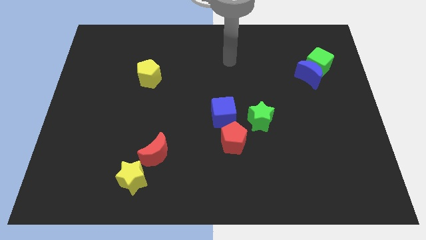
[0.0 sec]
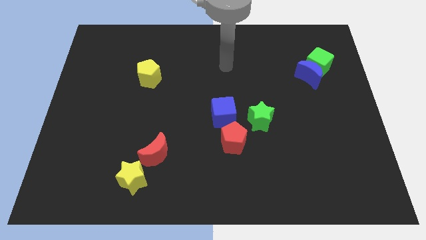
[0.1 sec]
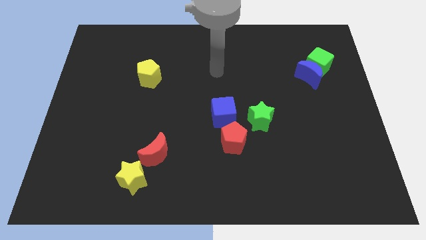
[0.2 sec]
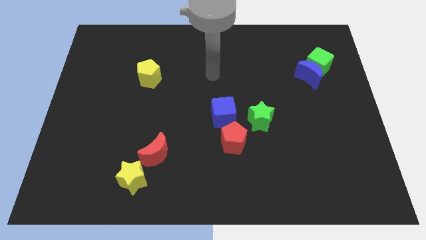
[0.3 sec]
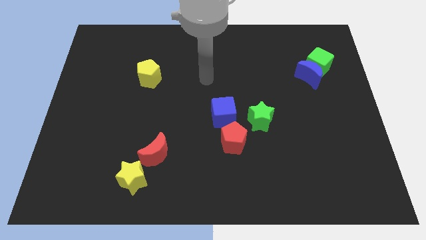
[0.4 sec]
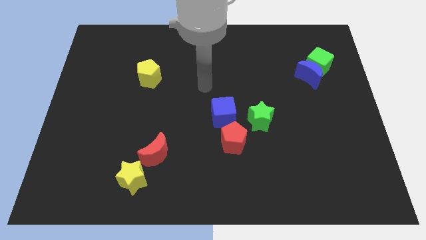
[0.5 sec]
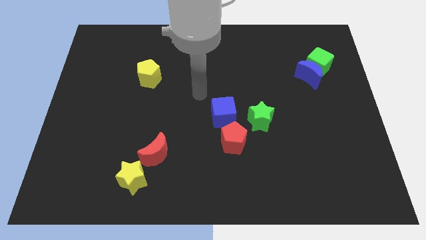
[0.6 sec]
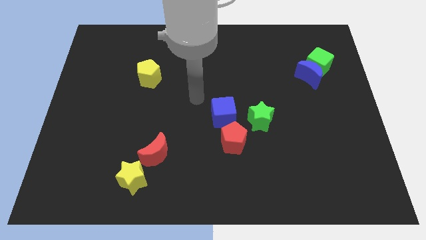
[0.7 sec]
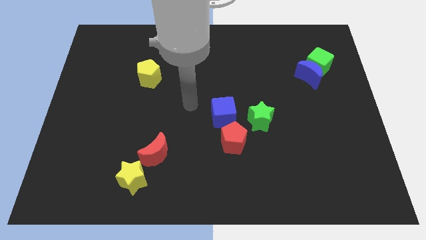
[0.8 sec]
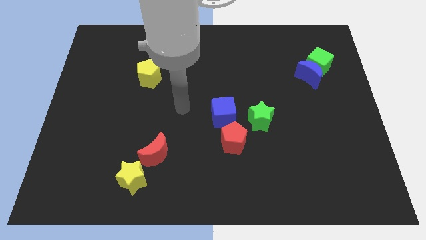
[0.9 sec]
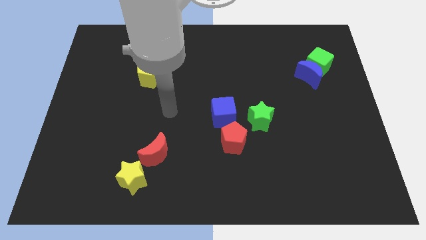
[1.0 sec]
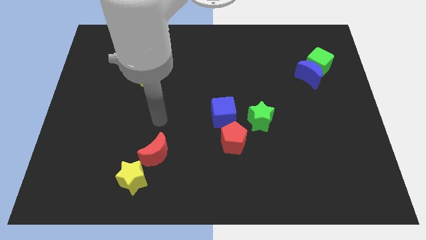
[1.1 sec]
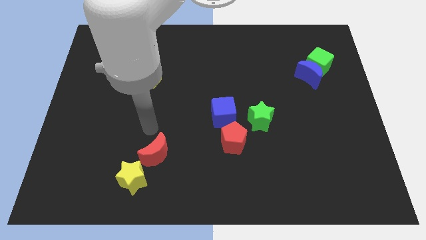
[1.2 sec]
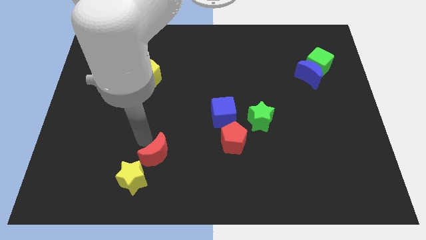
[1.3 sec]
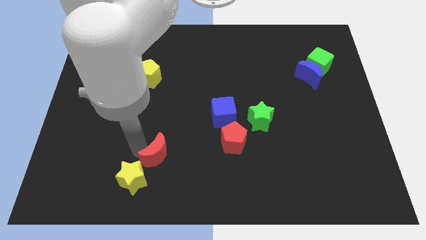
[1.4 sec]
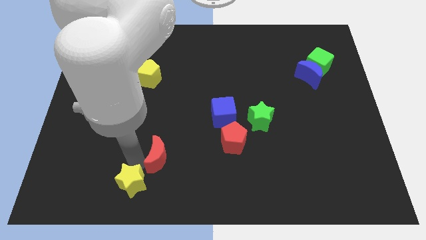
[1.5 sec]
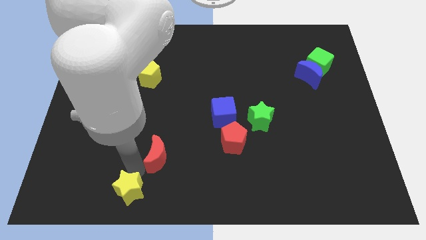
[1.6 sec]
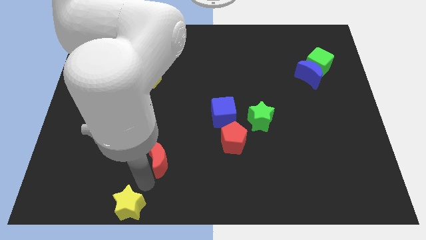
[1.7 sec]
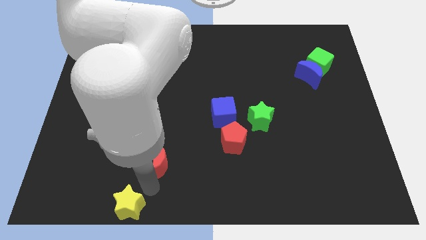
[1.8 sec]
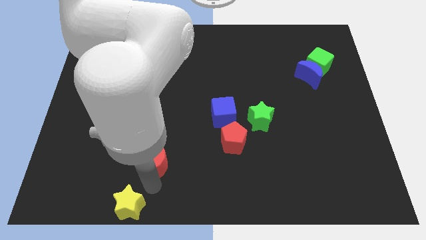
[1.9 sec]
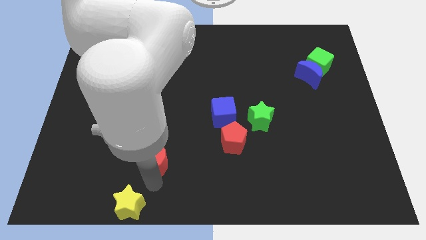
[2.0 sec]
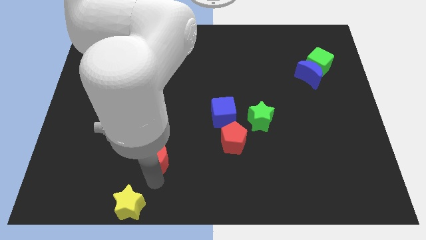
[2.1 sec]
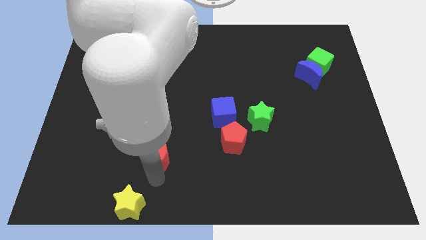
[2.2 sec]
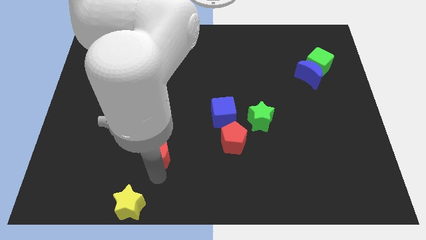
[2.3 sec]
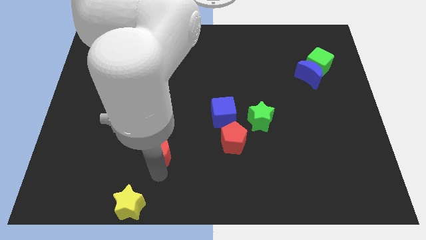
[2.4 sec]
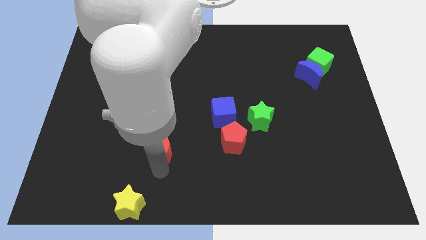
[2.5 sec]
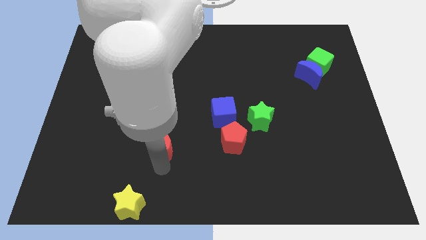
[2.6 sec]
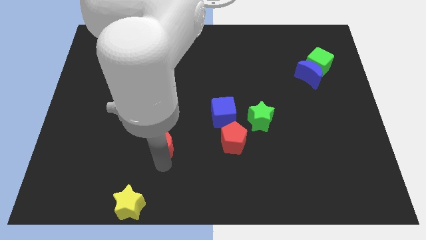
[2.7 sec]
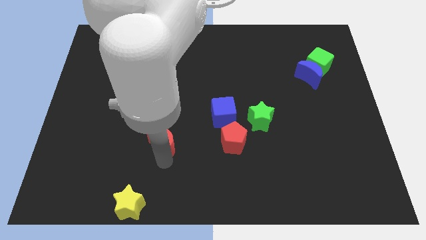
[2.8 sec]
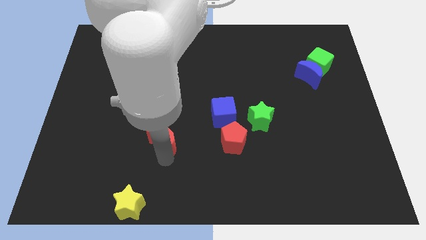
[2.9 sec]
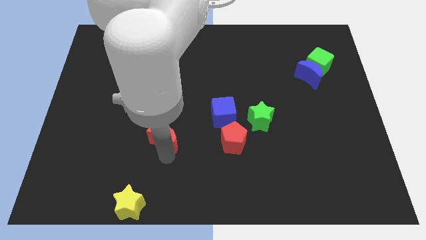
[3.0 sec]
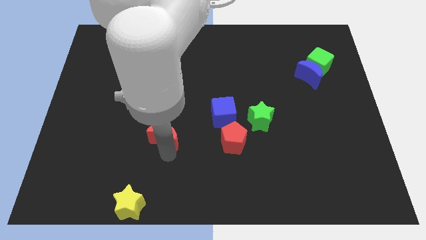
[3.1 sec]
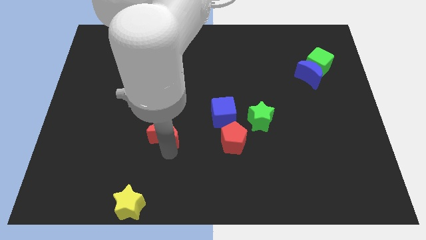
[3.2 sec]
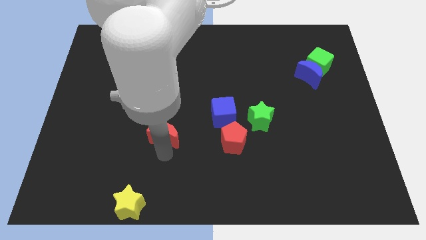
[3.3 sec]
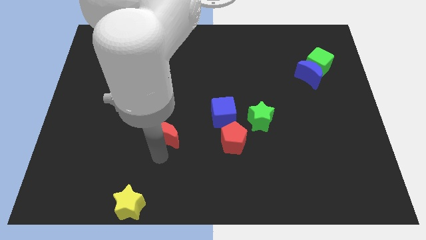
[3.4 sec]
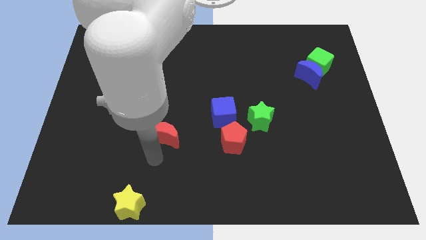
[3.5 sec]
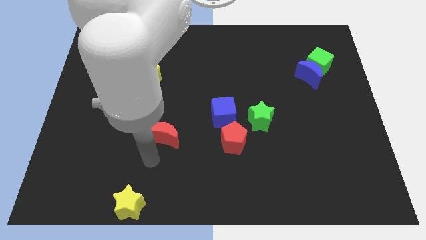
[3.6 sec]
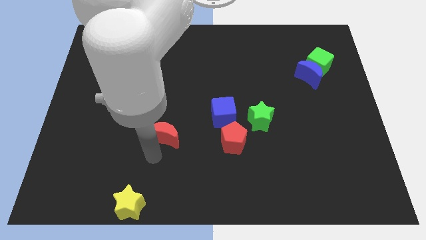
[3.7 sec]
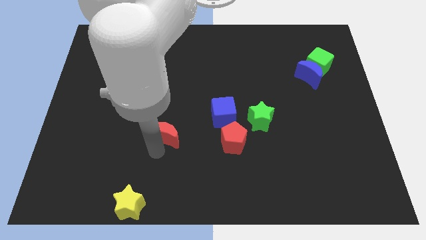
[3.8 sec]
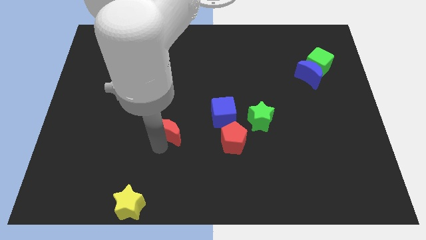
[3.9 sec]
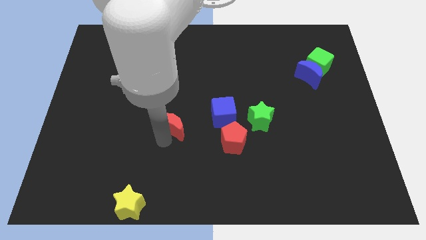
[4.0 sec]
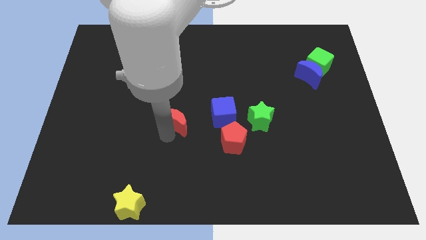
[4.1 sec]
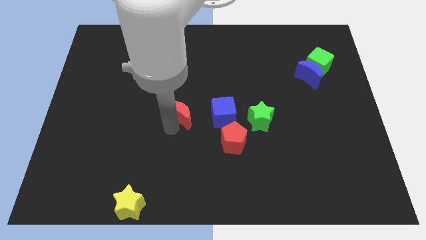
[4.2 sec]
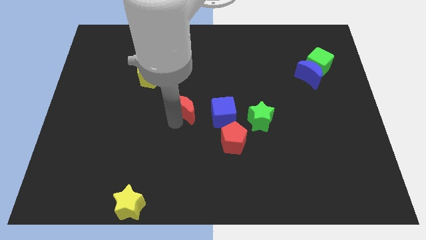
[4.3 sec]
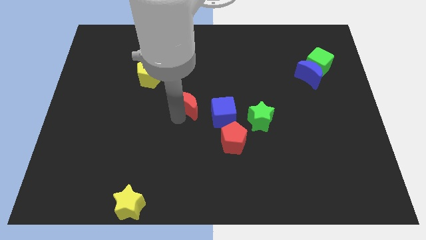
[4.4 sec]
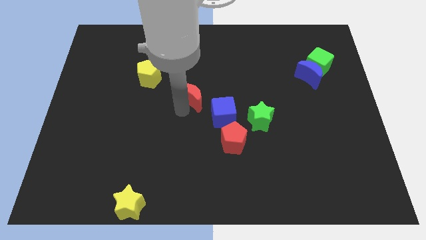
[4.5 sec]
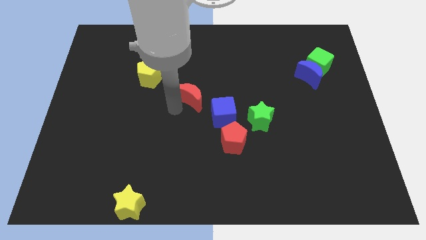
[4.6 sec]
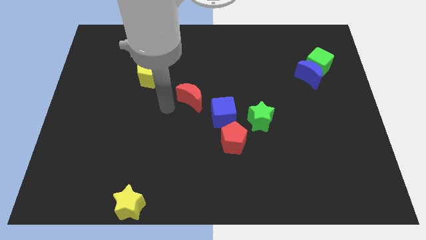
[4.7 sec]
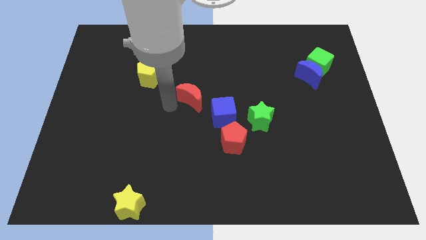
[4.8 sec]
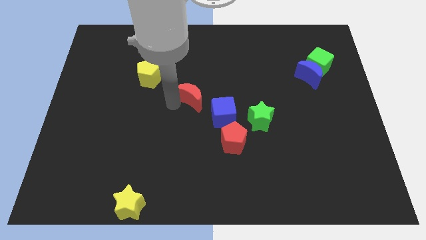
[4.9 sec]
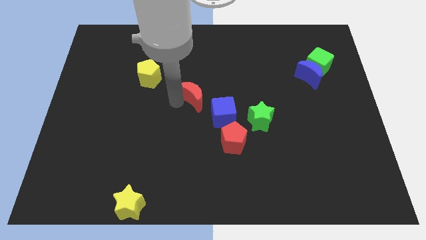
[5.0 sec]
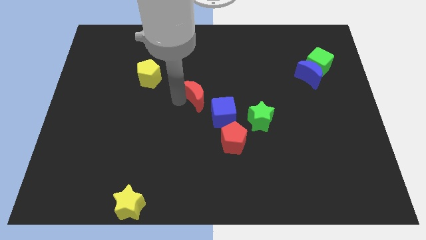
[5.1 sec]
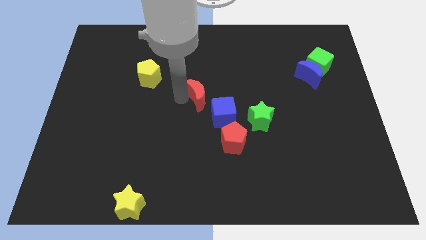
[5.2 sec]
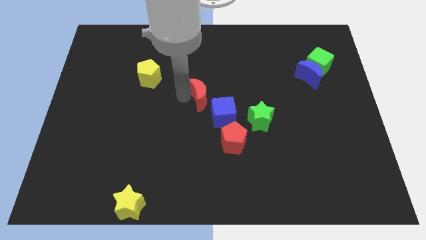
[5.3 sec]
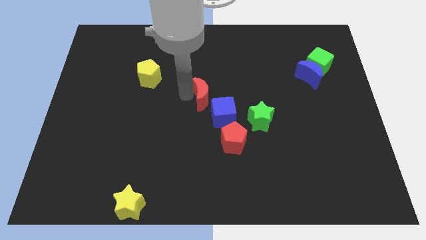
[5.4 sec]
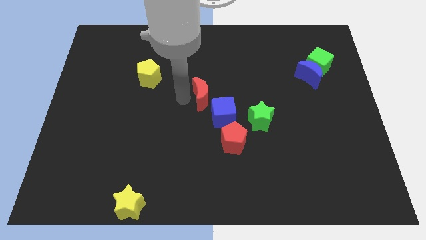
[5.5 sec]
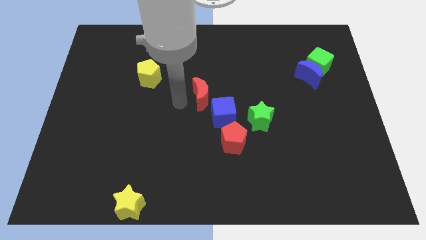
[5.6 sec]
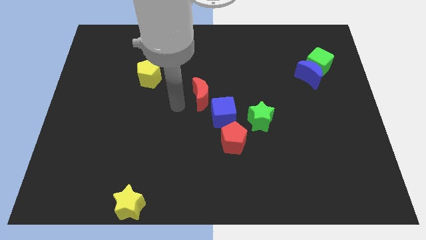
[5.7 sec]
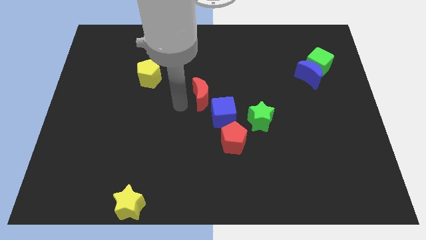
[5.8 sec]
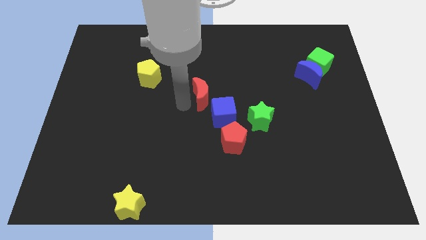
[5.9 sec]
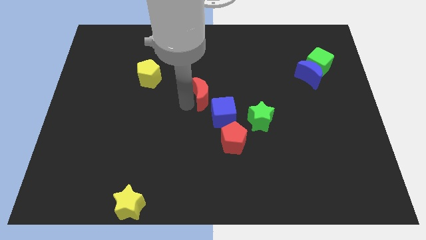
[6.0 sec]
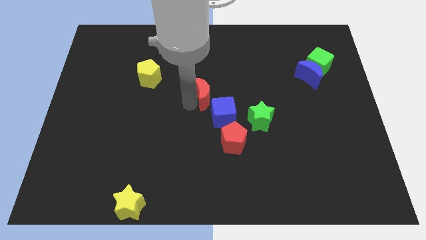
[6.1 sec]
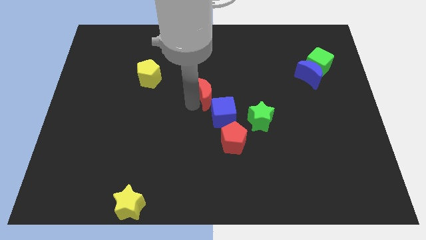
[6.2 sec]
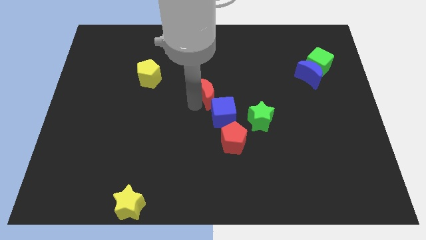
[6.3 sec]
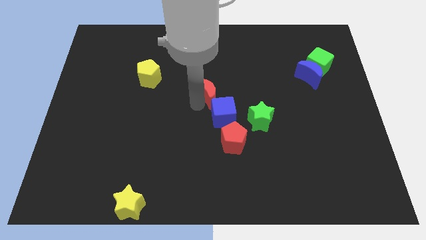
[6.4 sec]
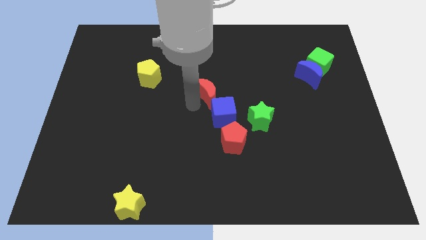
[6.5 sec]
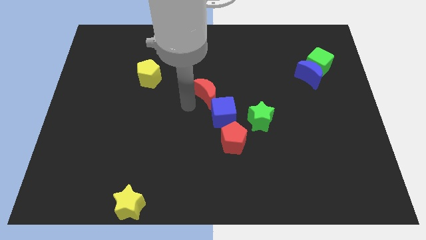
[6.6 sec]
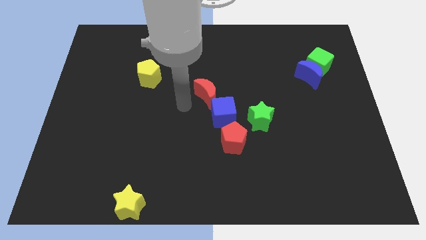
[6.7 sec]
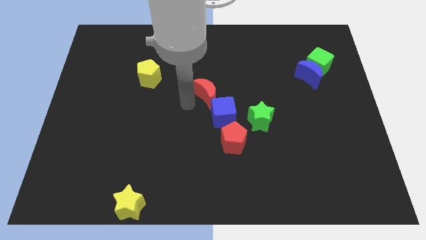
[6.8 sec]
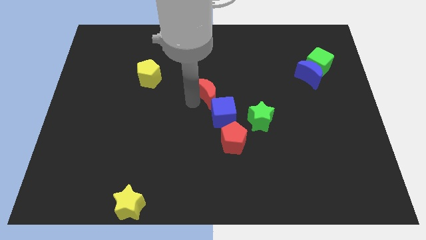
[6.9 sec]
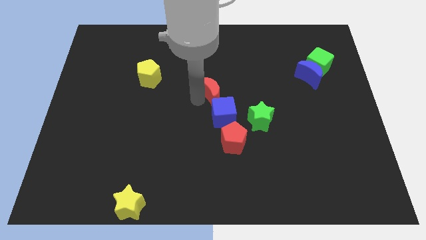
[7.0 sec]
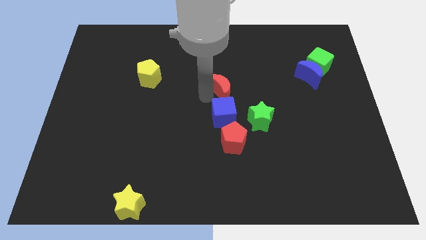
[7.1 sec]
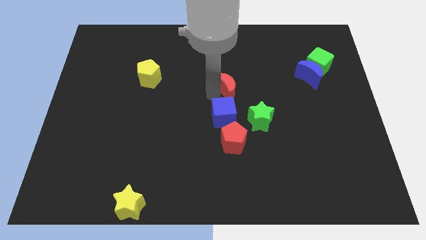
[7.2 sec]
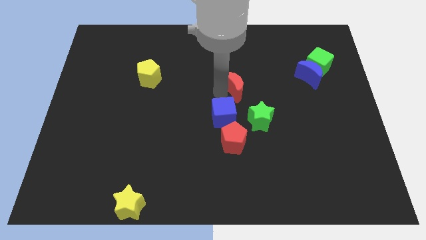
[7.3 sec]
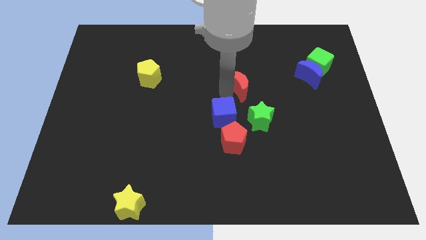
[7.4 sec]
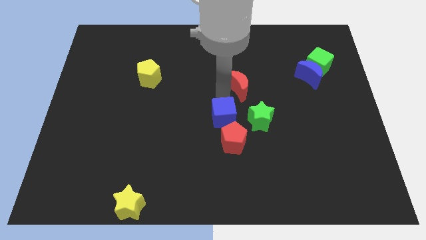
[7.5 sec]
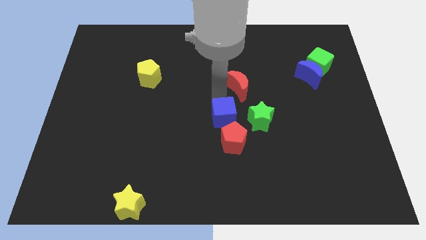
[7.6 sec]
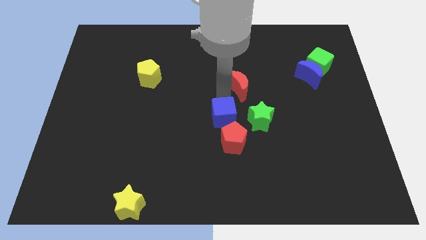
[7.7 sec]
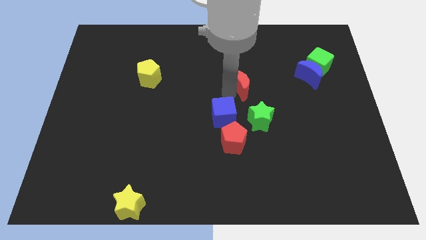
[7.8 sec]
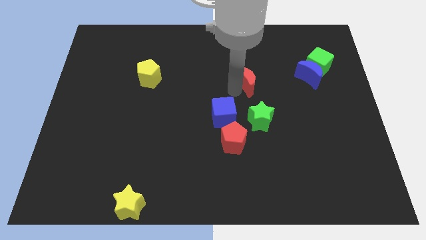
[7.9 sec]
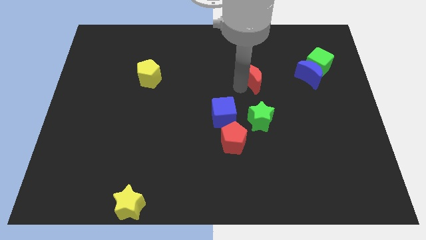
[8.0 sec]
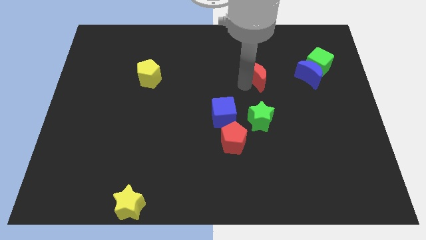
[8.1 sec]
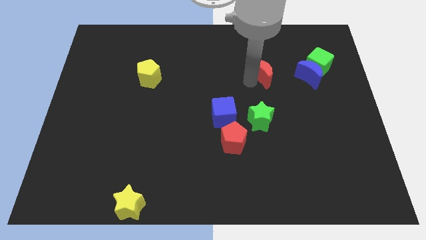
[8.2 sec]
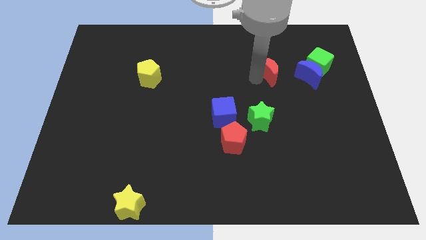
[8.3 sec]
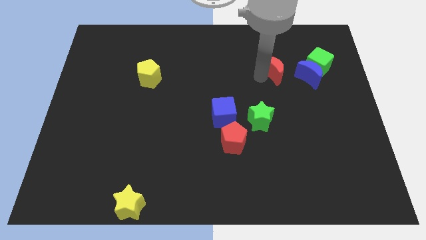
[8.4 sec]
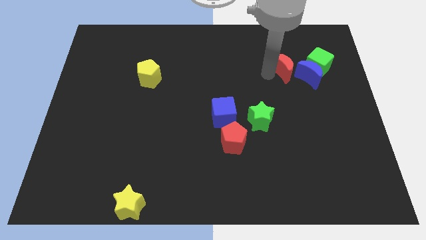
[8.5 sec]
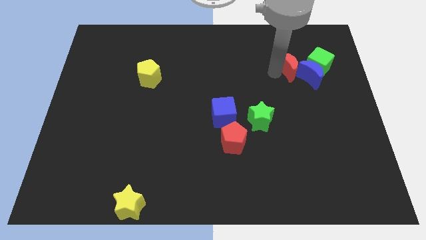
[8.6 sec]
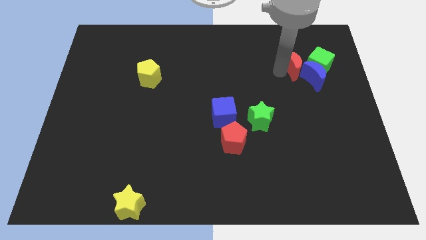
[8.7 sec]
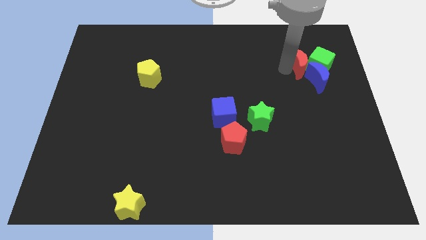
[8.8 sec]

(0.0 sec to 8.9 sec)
put the red moon towards the green cube
